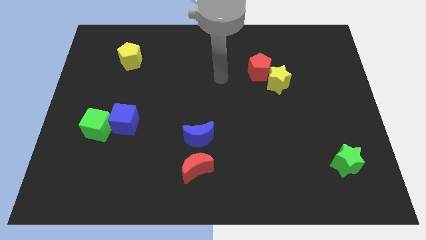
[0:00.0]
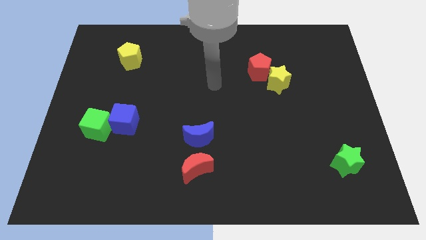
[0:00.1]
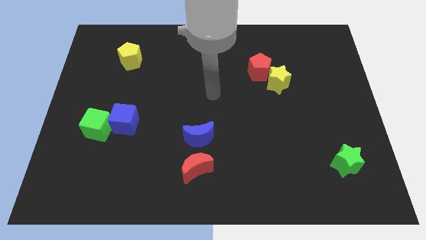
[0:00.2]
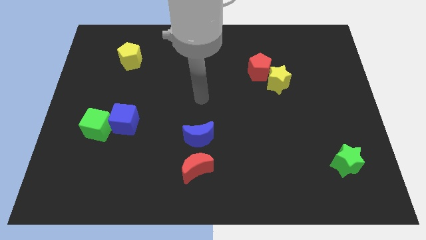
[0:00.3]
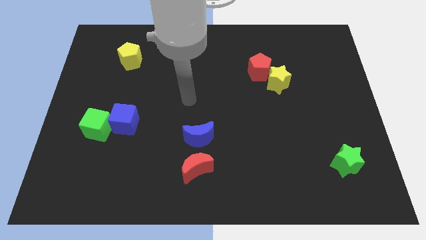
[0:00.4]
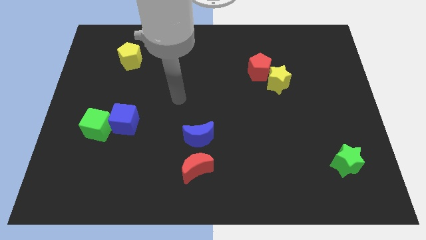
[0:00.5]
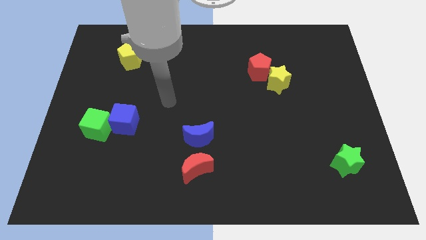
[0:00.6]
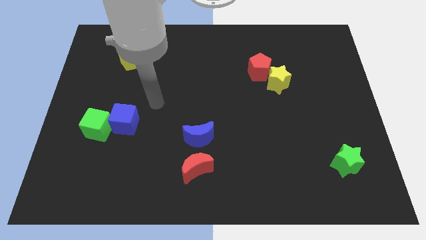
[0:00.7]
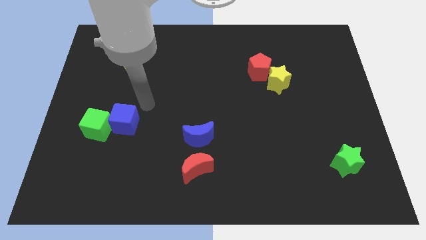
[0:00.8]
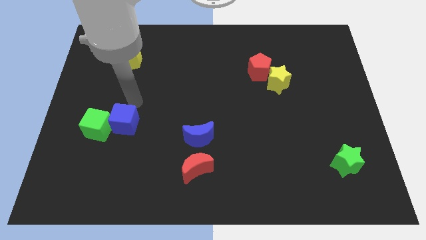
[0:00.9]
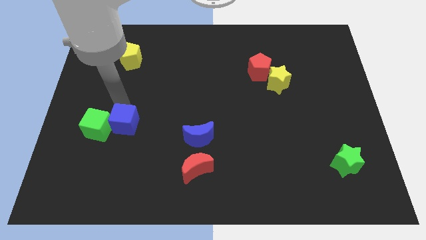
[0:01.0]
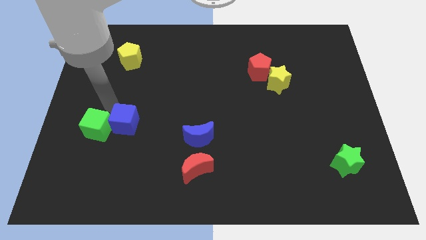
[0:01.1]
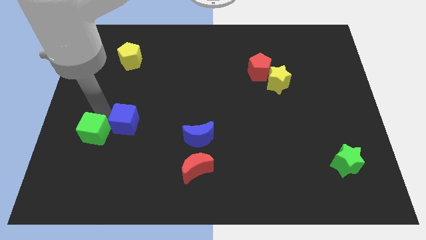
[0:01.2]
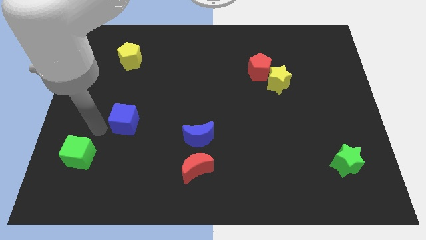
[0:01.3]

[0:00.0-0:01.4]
move the blue cube away from the green cube

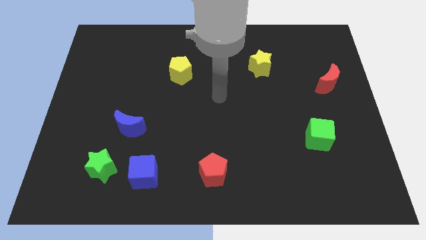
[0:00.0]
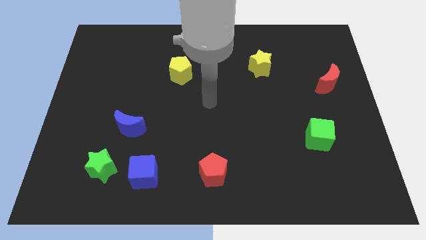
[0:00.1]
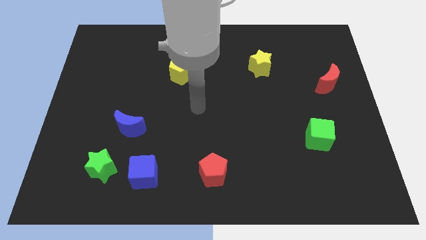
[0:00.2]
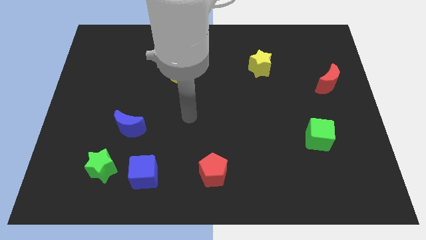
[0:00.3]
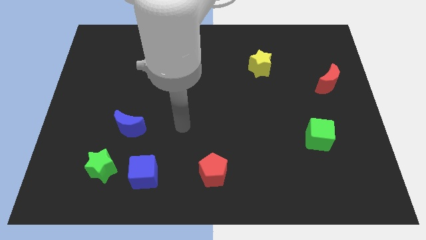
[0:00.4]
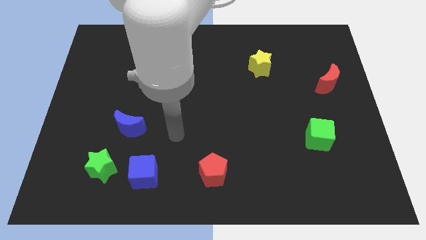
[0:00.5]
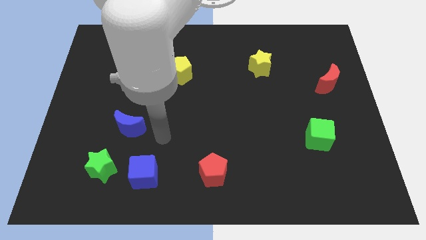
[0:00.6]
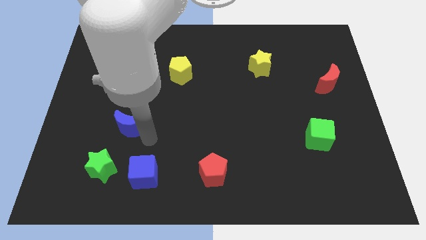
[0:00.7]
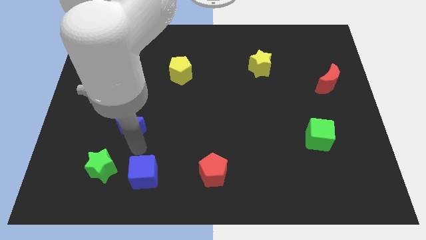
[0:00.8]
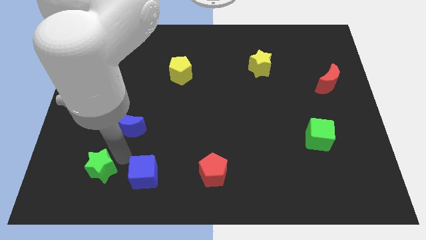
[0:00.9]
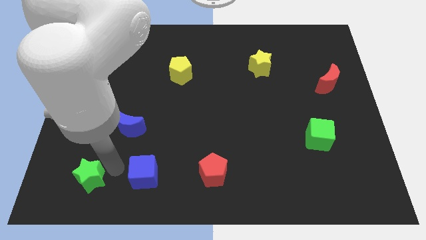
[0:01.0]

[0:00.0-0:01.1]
pull the blue cube apart from the green star

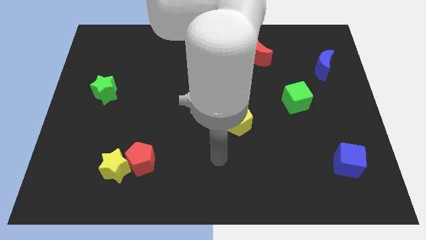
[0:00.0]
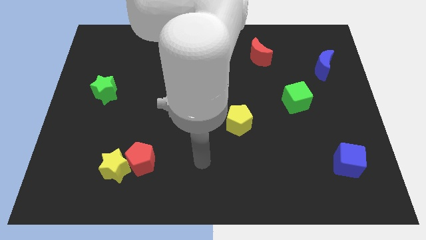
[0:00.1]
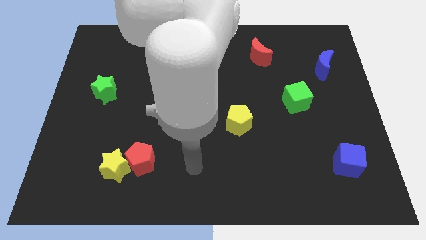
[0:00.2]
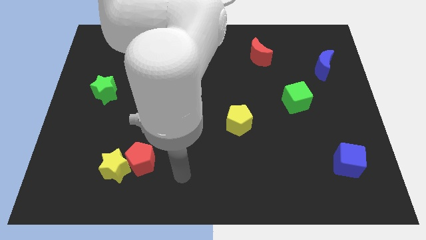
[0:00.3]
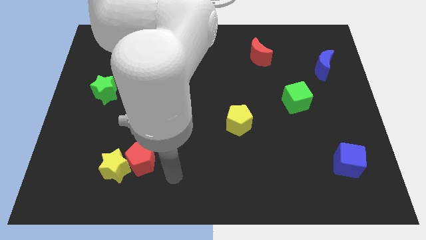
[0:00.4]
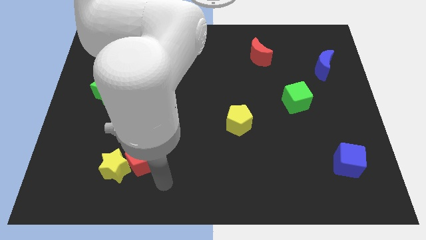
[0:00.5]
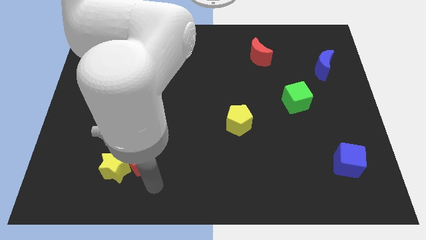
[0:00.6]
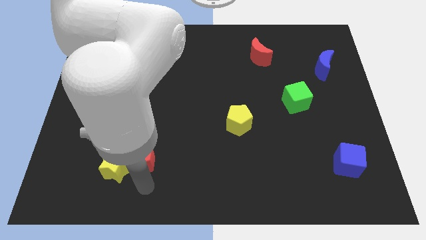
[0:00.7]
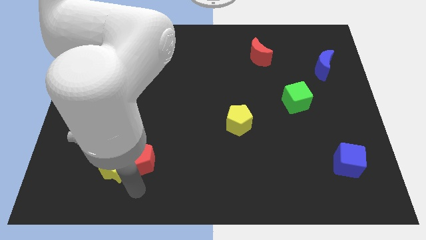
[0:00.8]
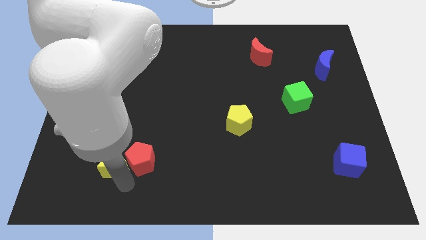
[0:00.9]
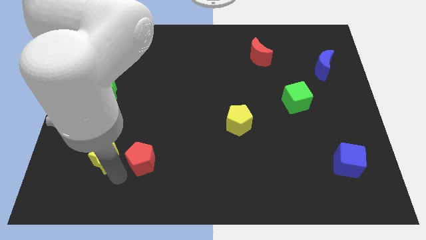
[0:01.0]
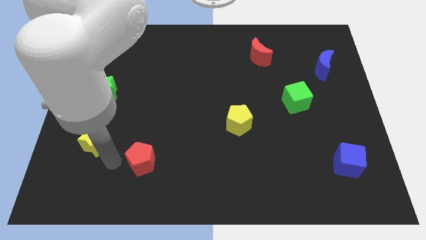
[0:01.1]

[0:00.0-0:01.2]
pull the red pentagon apart from the yellow star

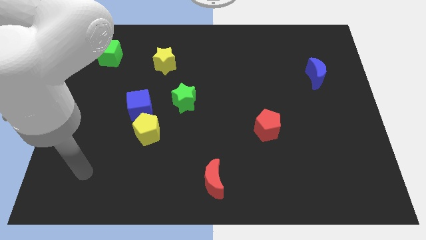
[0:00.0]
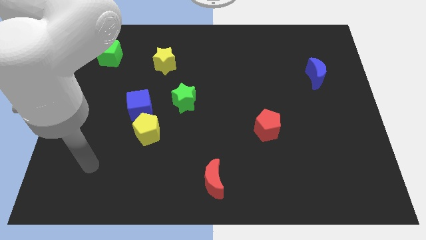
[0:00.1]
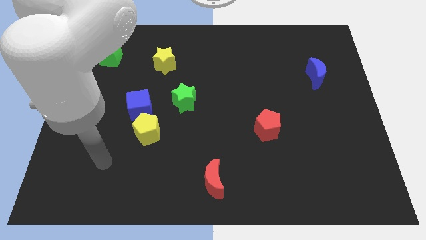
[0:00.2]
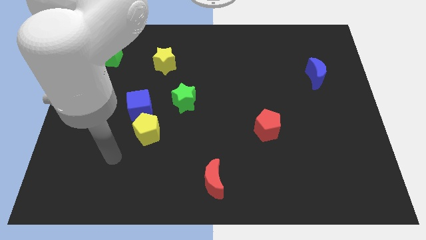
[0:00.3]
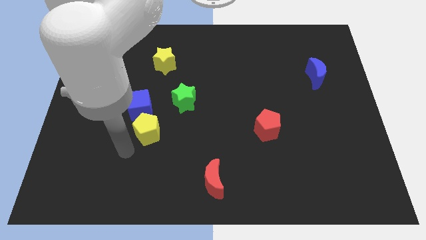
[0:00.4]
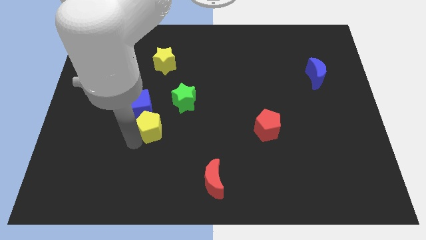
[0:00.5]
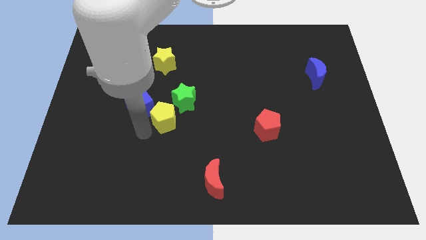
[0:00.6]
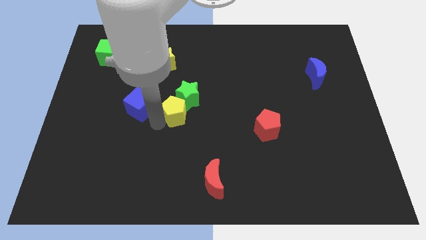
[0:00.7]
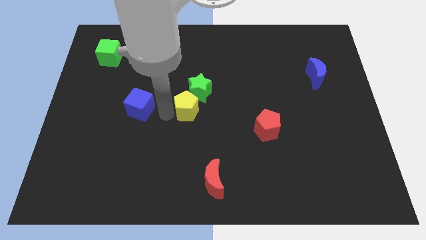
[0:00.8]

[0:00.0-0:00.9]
pull the blue cube apart from the yellow pentagon

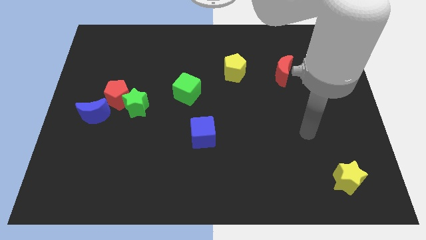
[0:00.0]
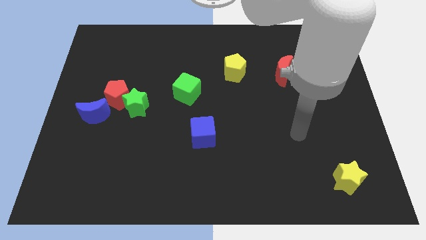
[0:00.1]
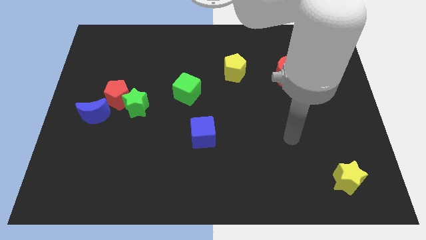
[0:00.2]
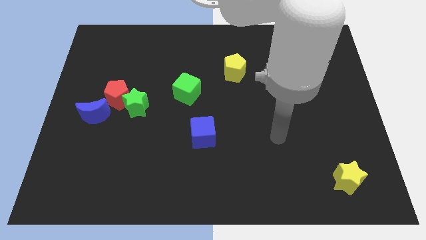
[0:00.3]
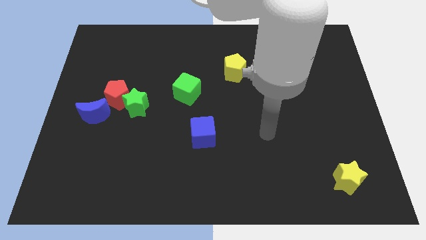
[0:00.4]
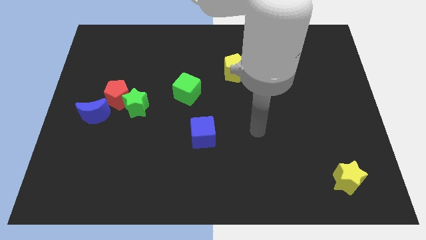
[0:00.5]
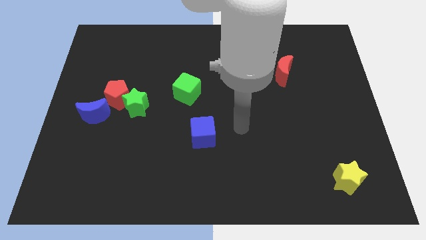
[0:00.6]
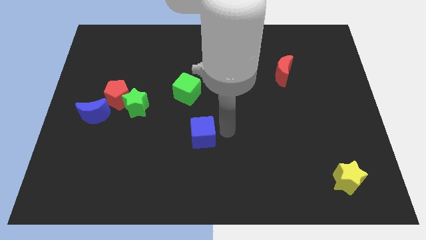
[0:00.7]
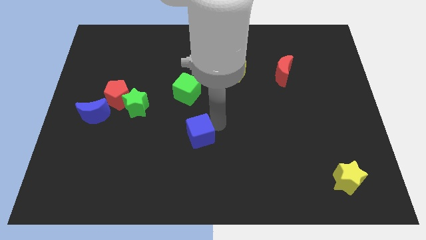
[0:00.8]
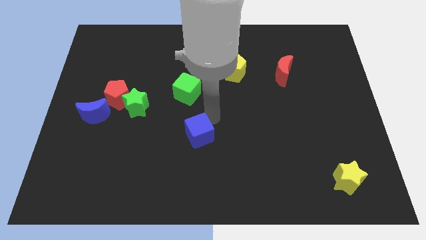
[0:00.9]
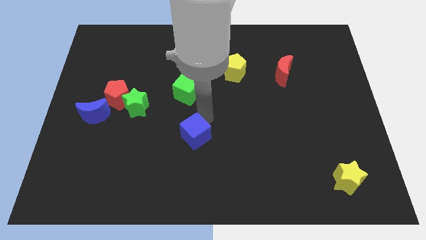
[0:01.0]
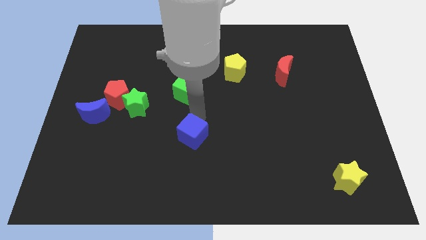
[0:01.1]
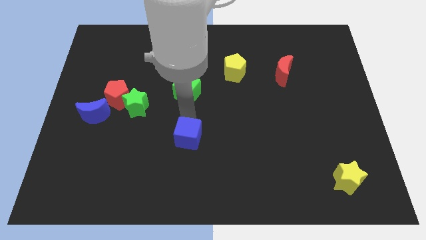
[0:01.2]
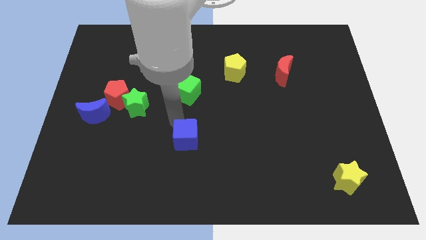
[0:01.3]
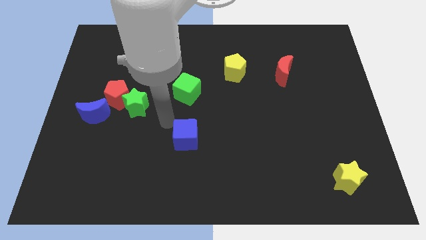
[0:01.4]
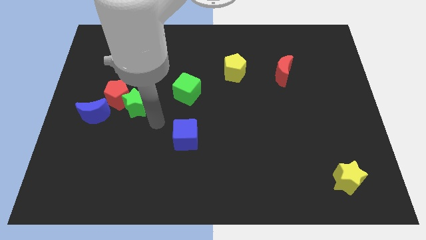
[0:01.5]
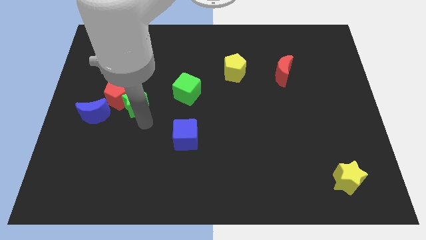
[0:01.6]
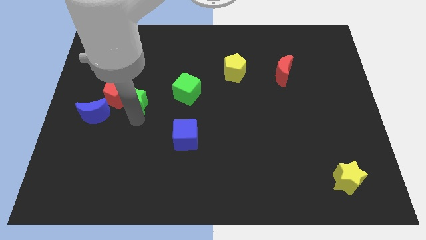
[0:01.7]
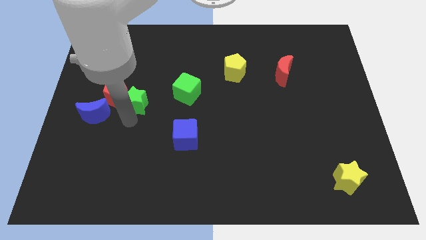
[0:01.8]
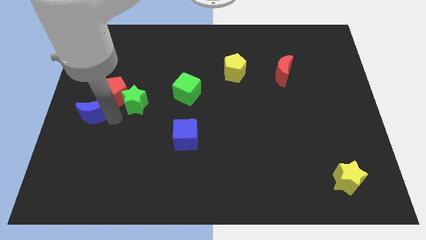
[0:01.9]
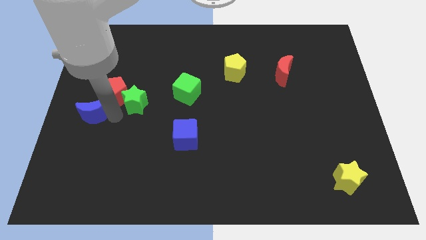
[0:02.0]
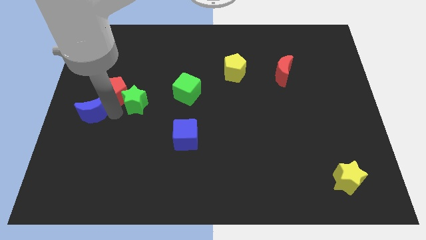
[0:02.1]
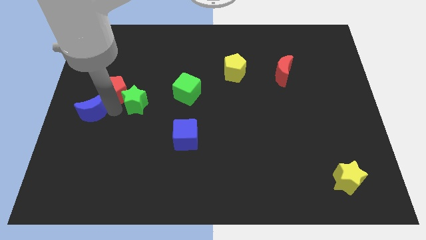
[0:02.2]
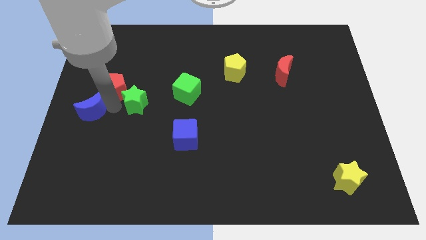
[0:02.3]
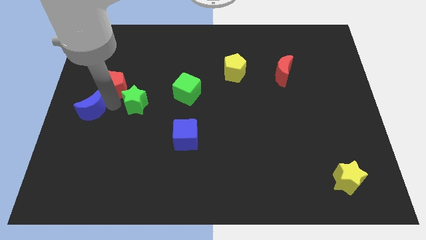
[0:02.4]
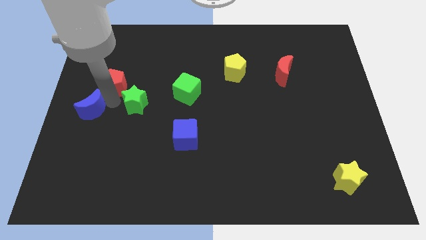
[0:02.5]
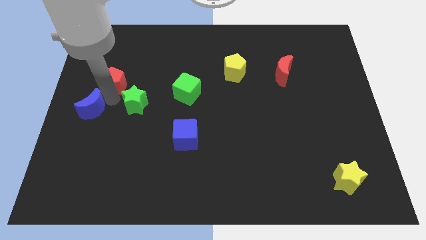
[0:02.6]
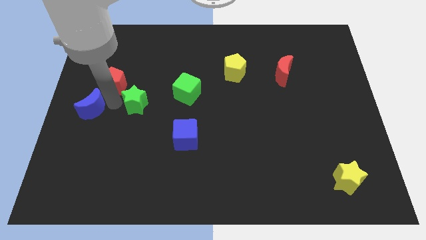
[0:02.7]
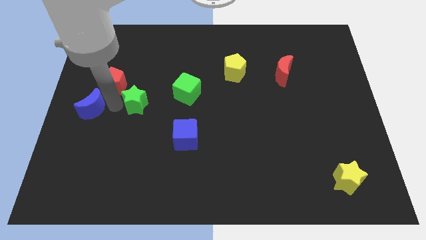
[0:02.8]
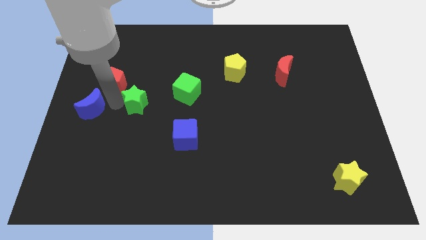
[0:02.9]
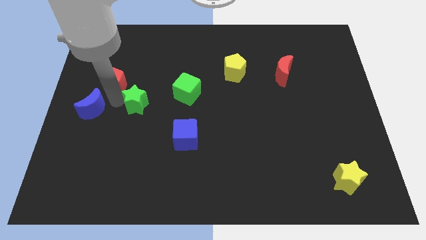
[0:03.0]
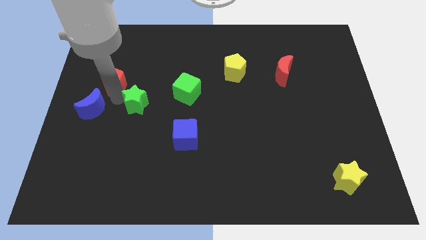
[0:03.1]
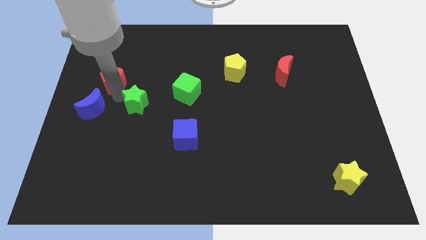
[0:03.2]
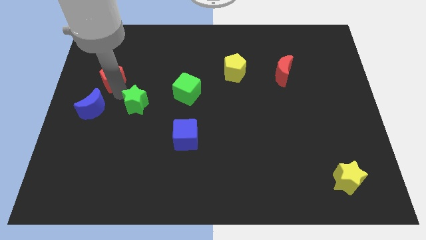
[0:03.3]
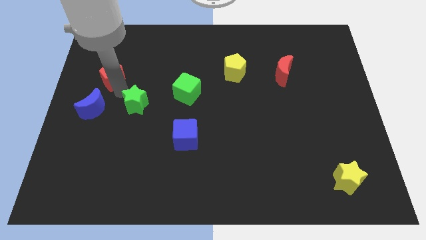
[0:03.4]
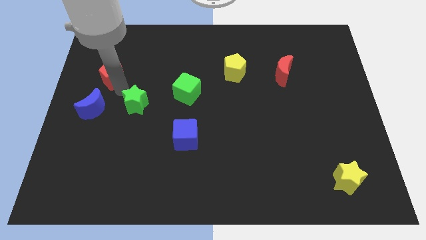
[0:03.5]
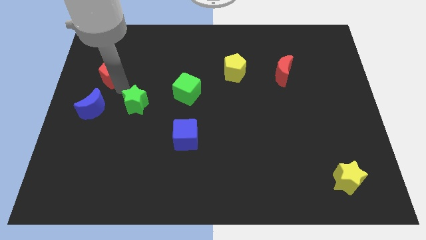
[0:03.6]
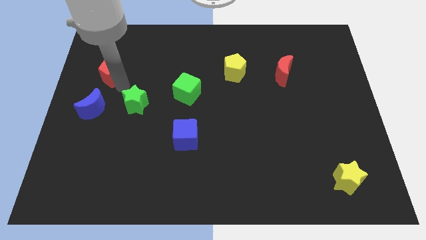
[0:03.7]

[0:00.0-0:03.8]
move the red pentagon away from the green star and blue moon

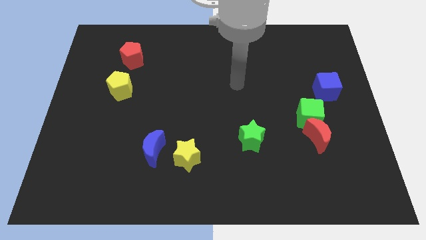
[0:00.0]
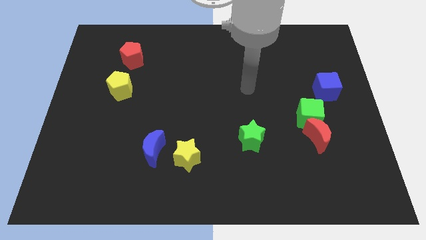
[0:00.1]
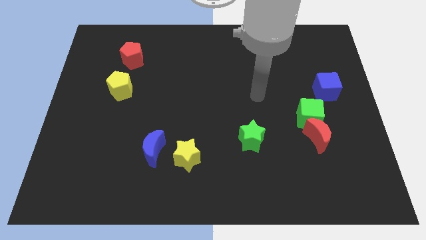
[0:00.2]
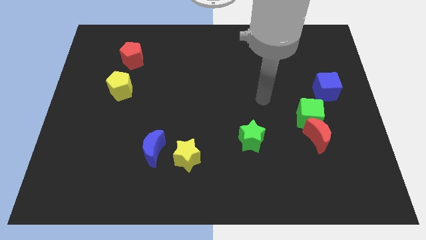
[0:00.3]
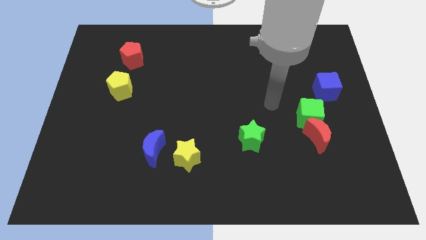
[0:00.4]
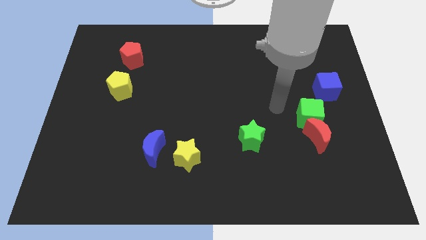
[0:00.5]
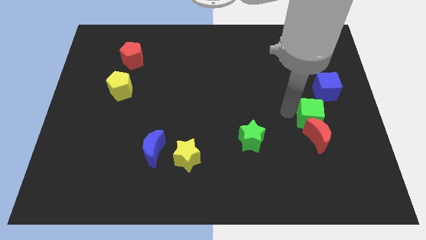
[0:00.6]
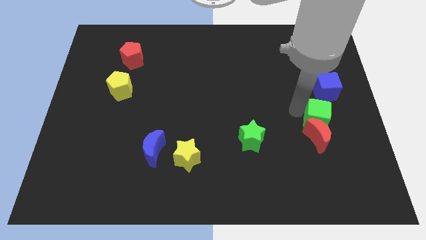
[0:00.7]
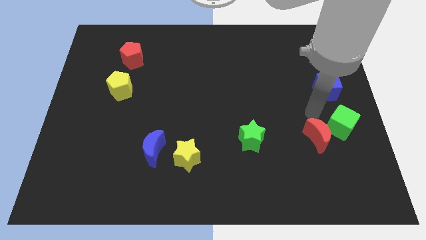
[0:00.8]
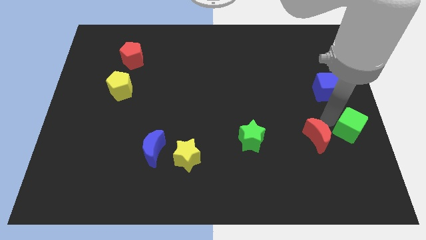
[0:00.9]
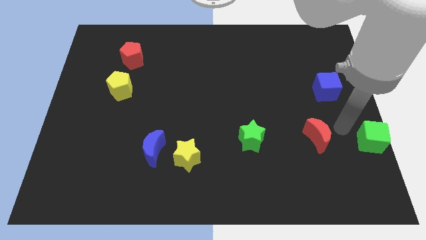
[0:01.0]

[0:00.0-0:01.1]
pull the red moon apart from the green cube
